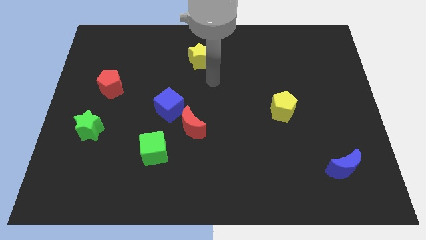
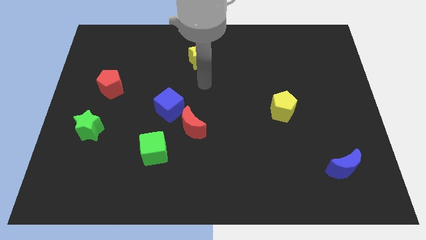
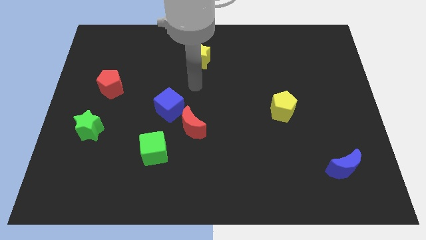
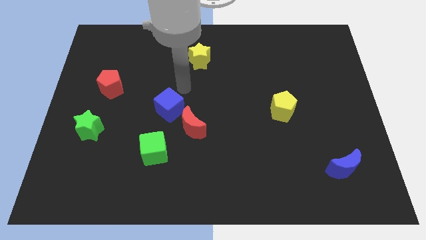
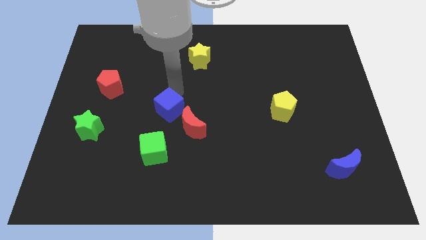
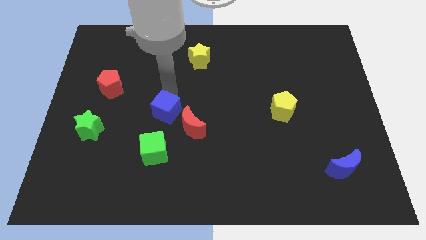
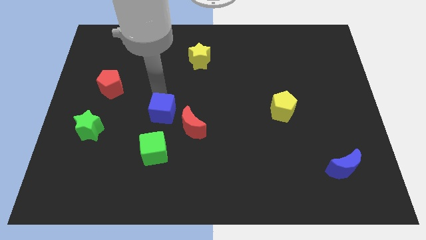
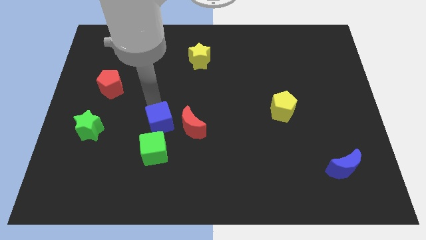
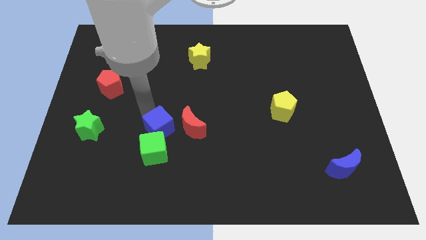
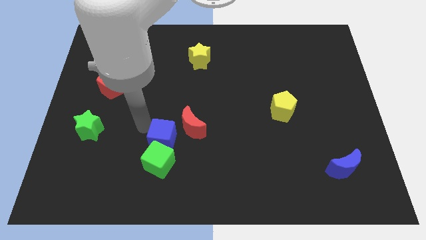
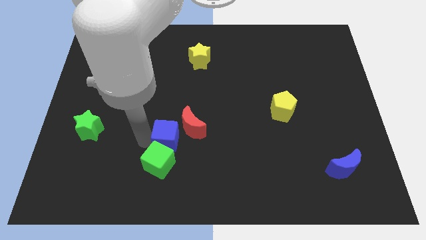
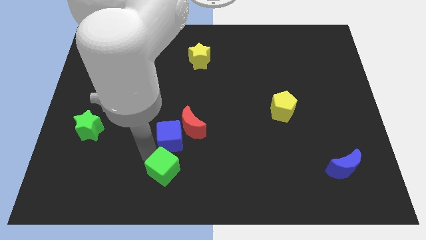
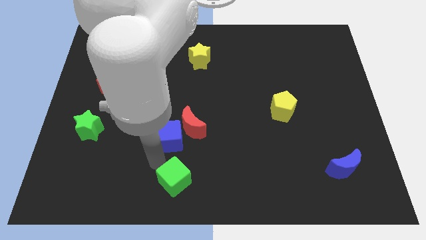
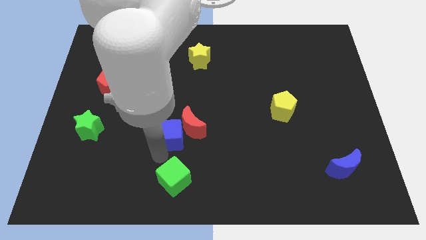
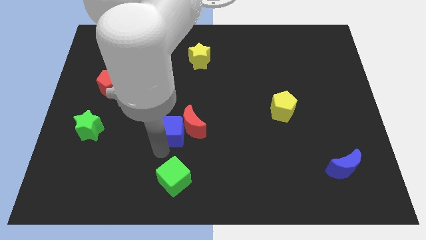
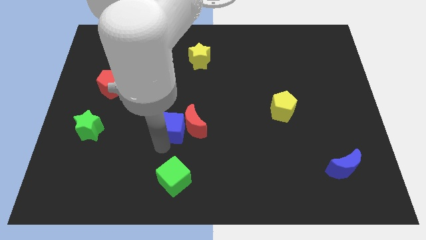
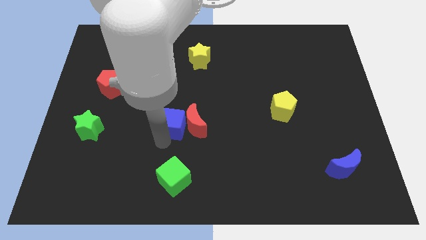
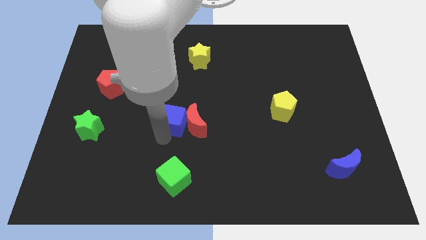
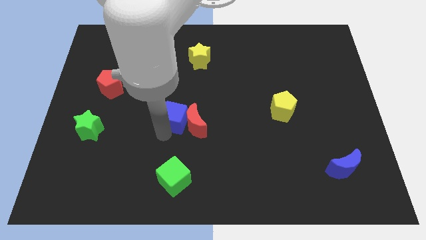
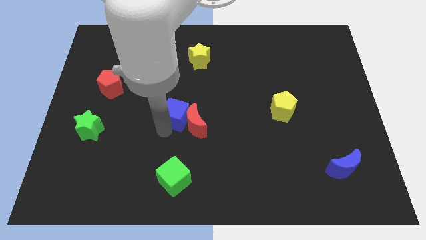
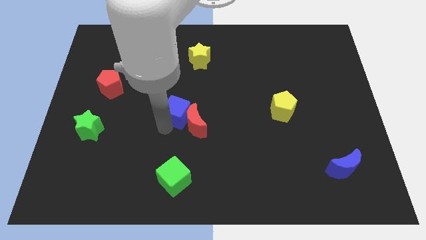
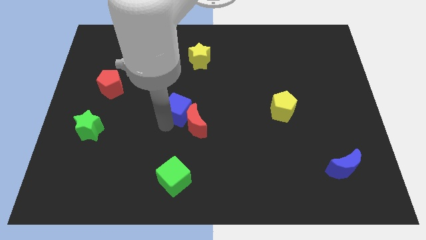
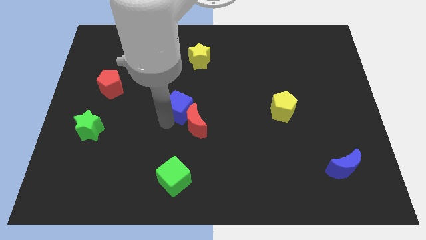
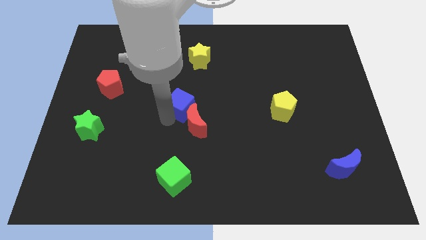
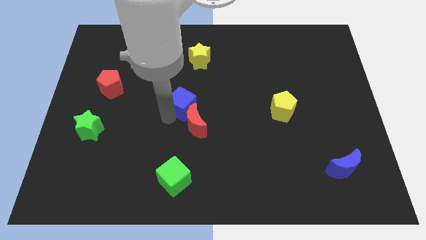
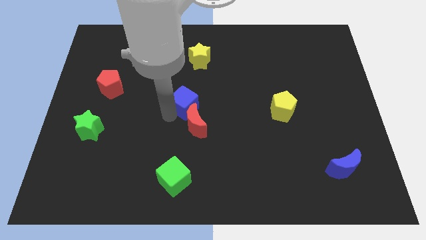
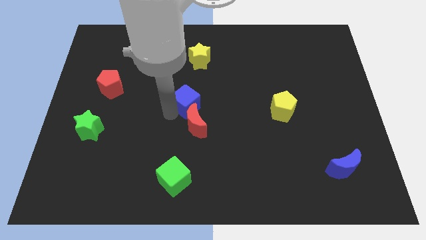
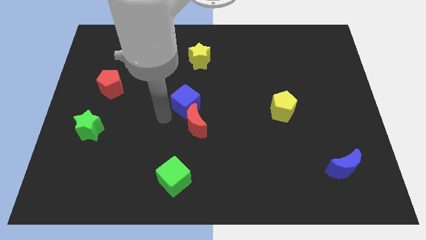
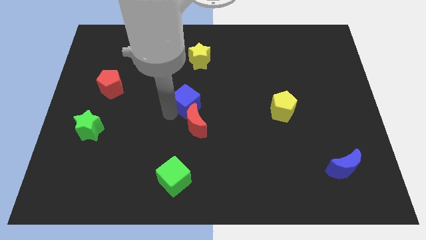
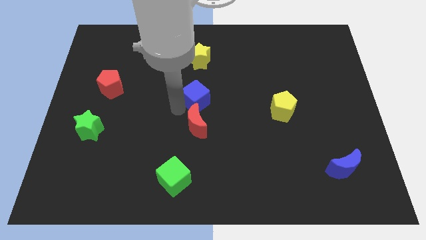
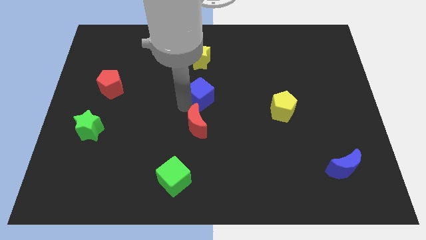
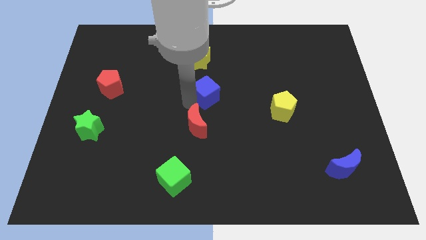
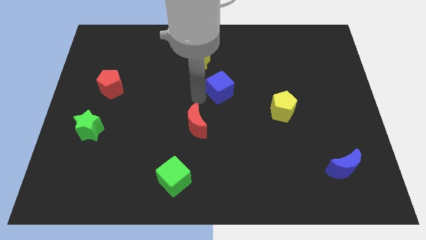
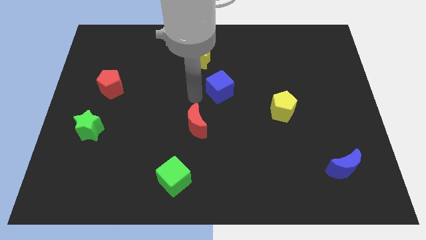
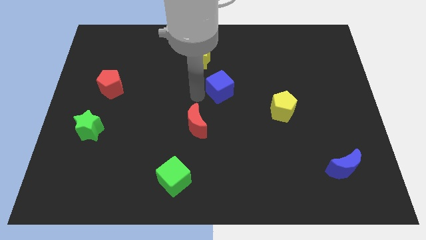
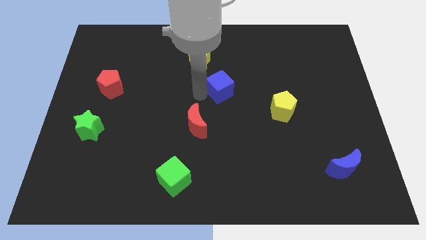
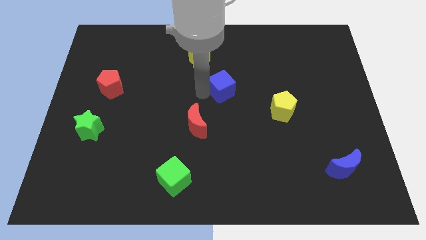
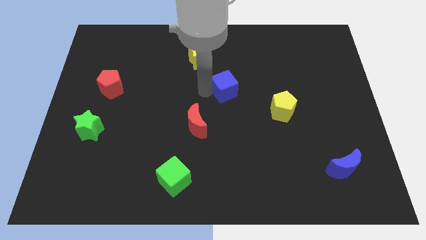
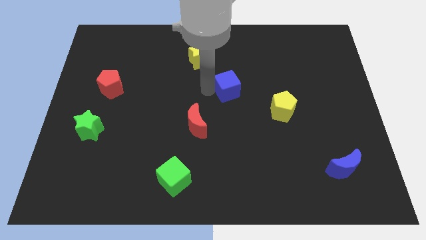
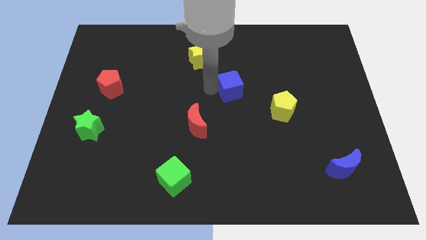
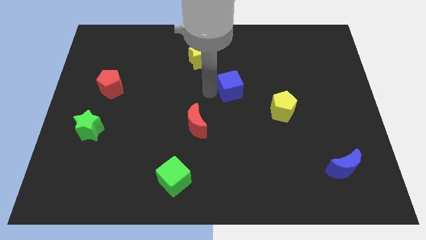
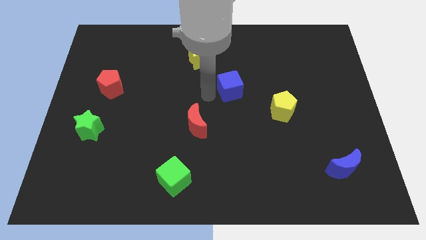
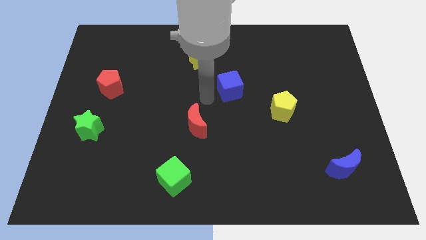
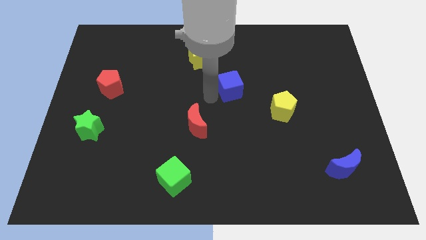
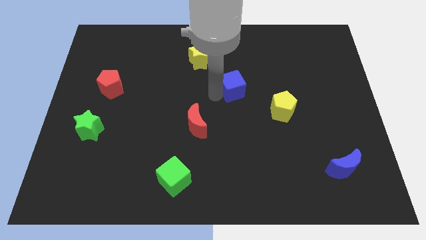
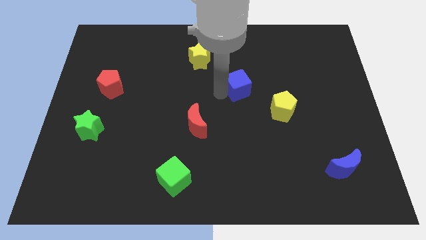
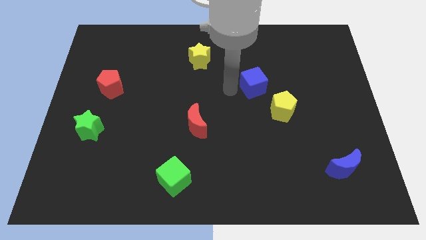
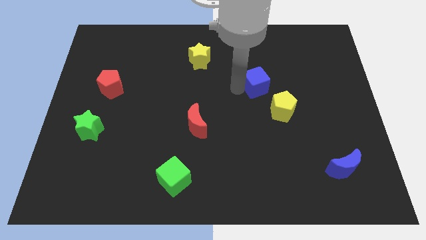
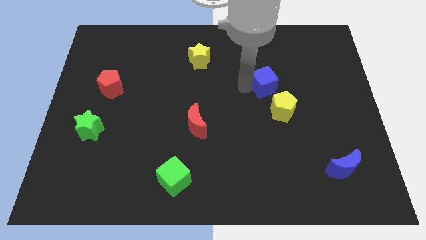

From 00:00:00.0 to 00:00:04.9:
slide the blue cube above the yellow pentagon

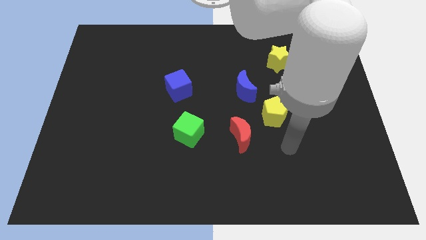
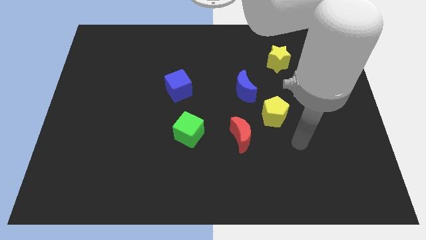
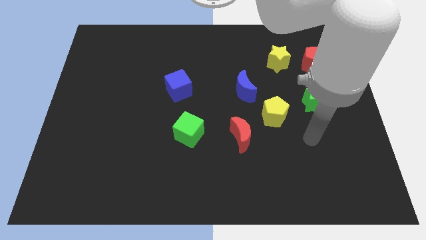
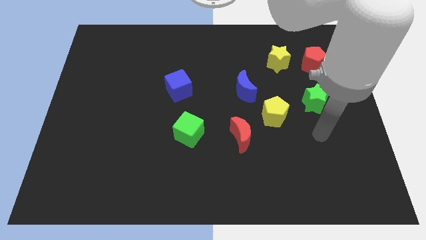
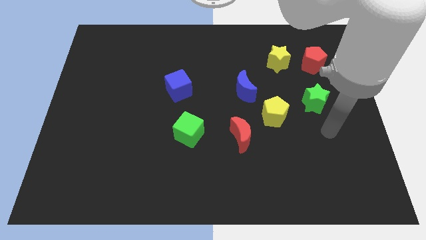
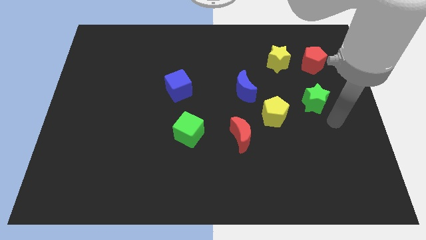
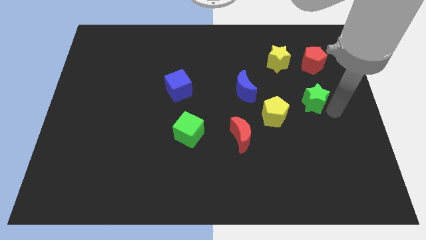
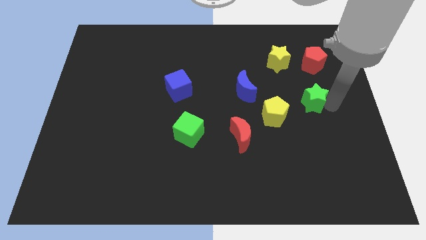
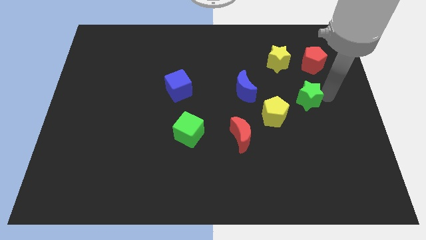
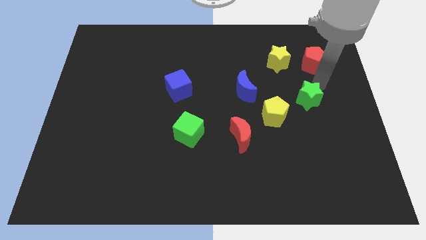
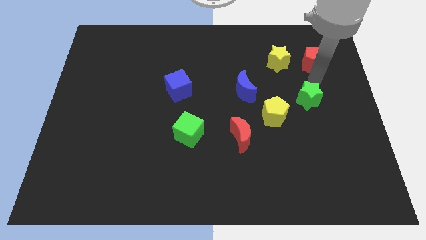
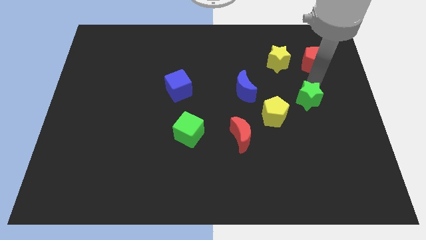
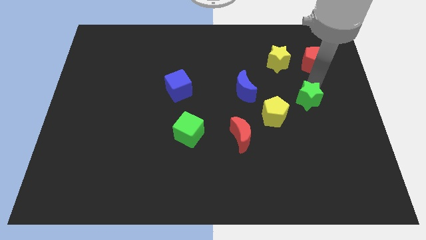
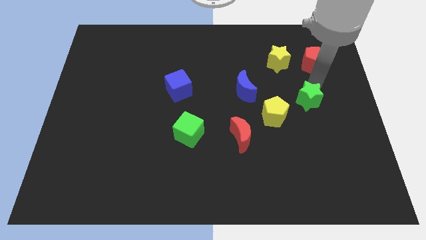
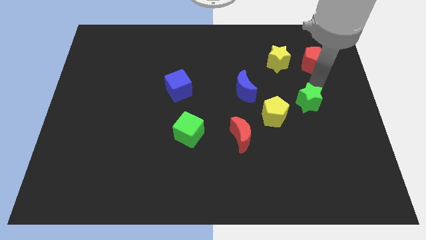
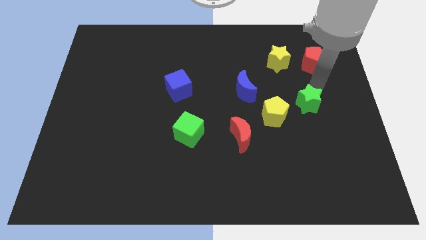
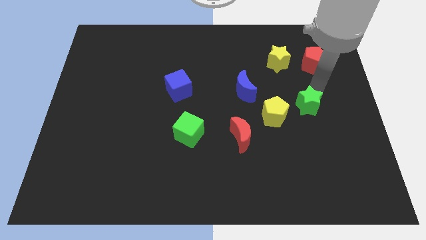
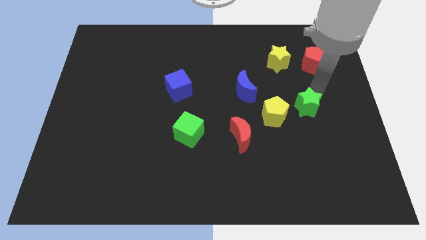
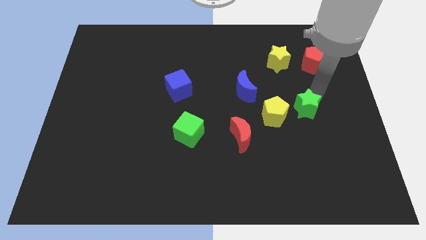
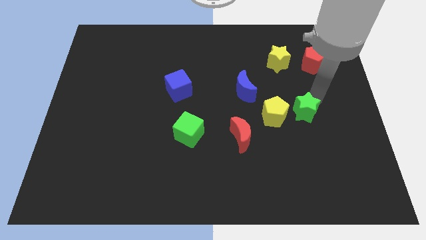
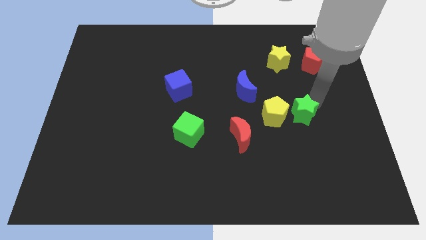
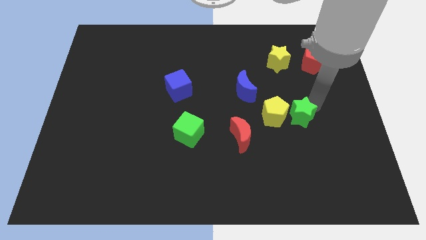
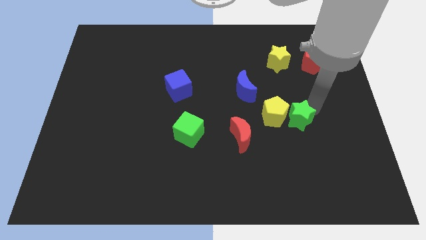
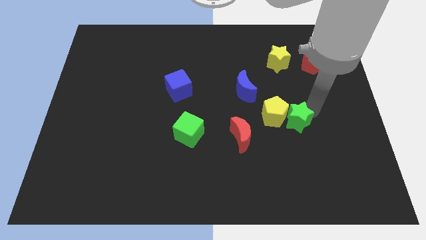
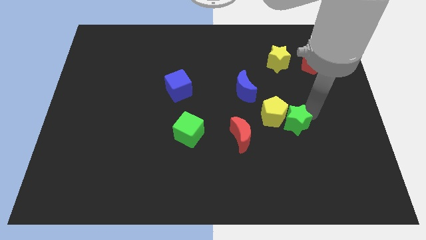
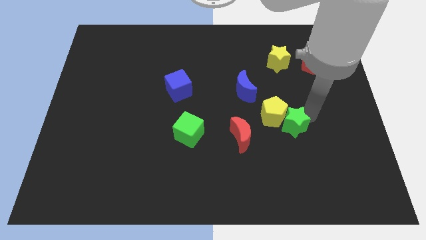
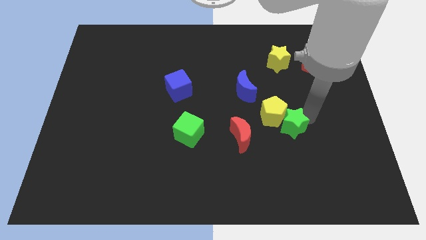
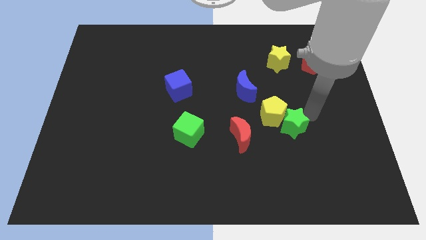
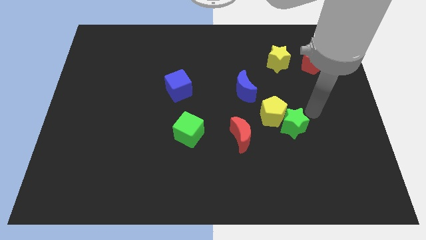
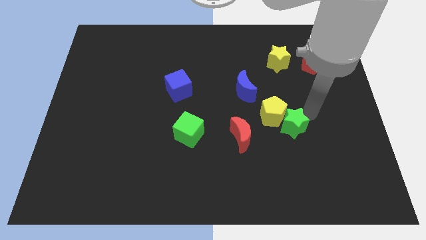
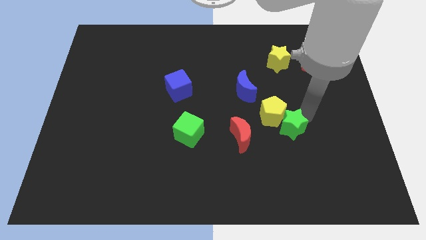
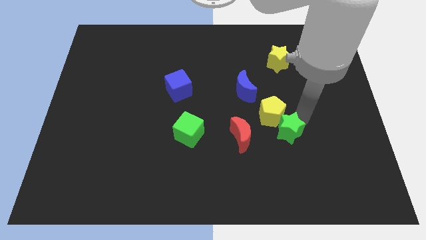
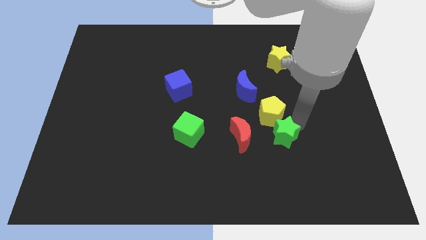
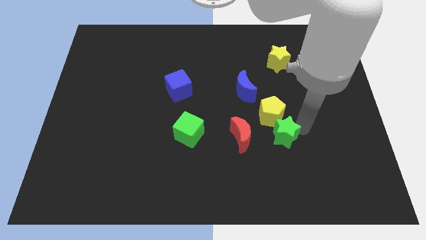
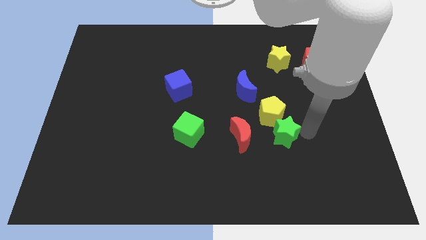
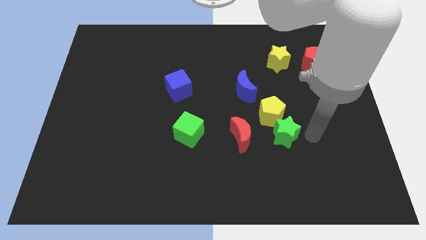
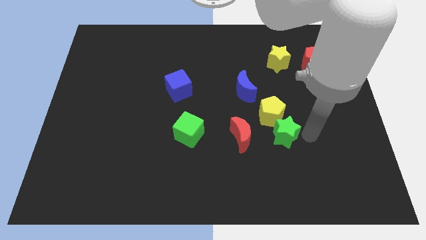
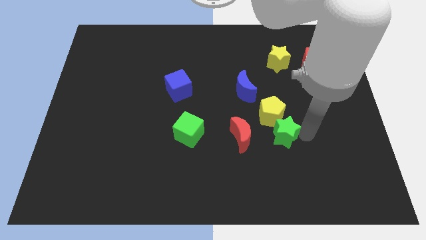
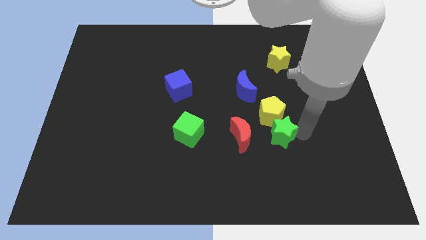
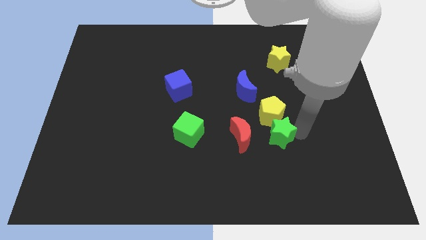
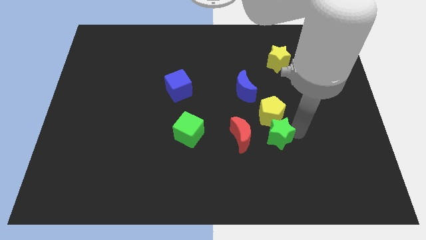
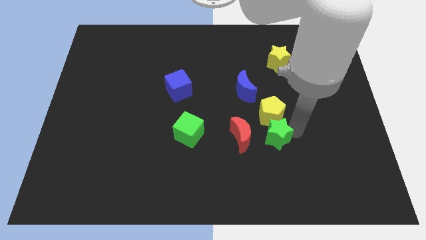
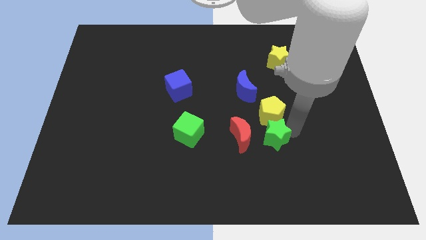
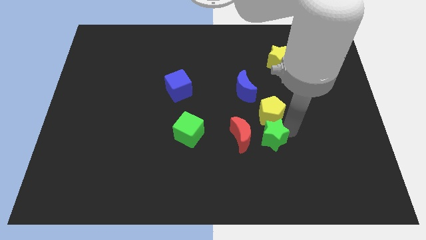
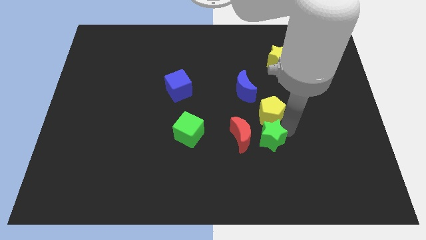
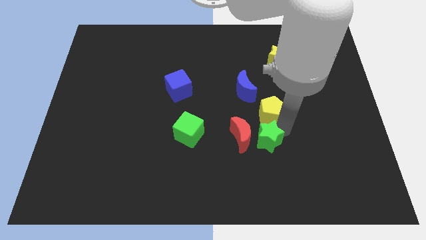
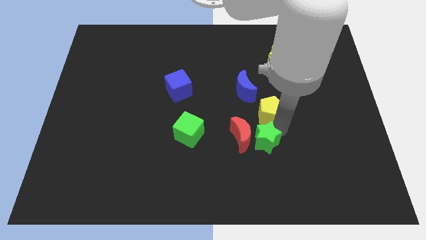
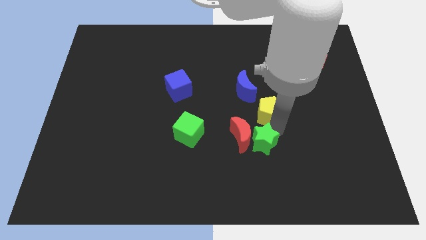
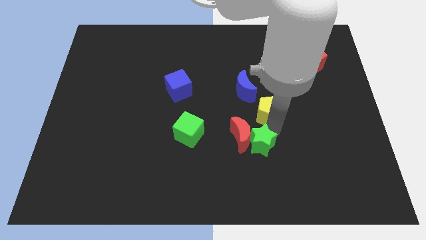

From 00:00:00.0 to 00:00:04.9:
put the green star to the right side of the green cube
